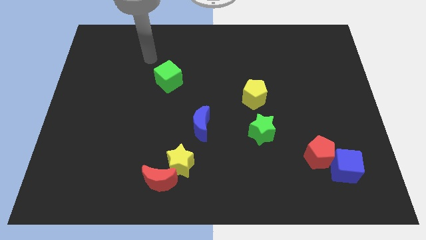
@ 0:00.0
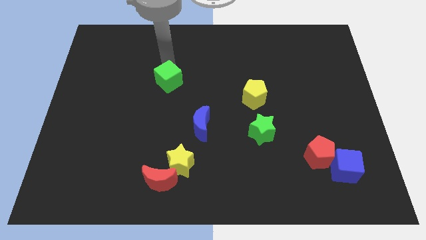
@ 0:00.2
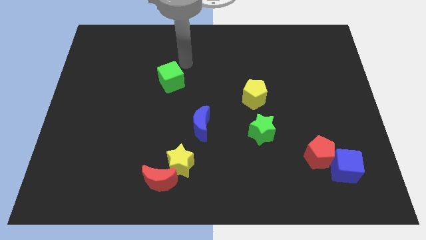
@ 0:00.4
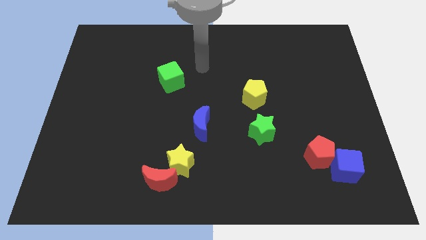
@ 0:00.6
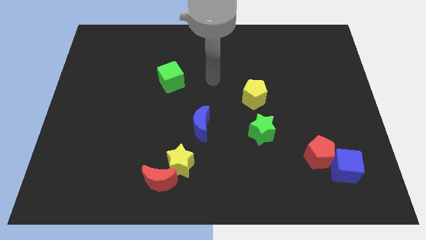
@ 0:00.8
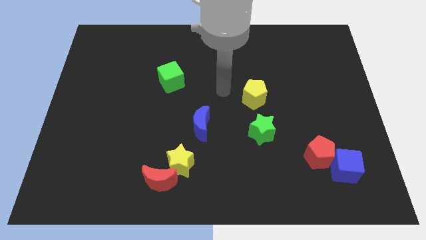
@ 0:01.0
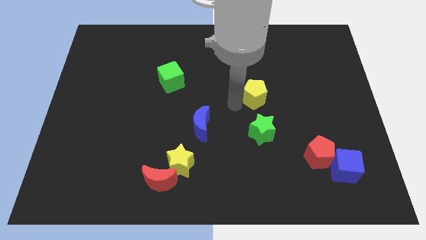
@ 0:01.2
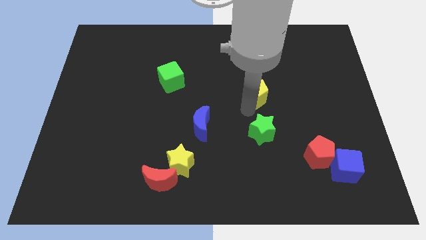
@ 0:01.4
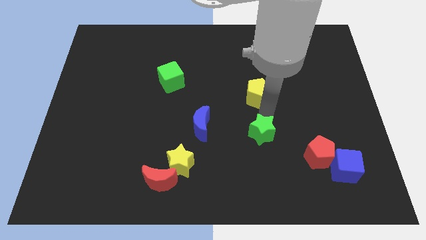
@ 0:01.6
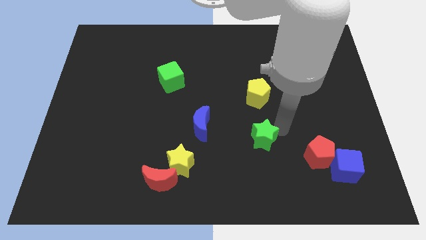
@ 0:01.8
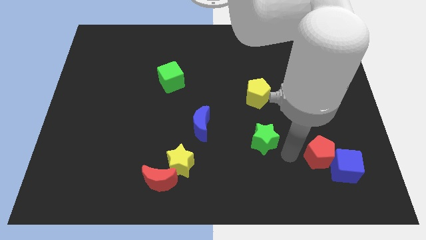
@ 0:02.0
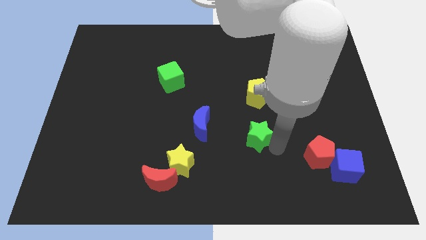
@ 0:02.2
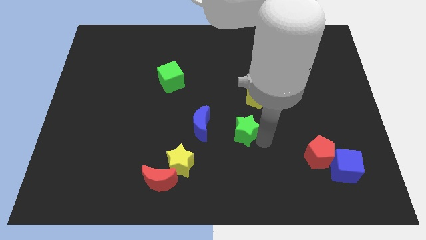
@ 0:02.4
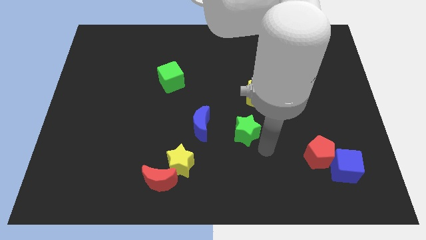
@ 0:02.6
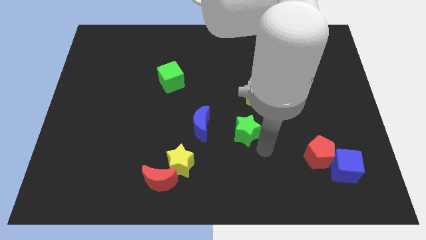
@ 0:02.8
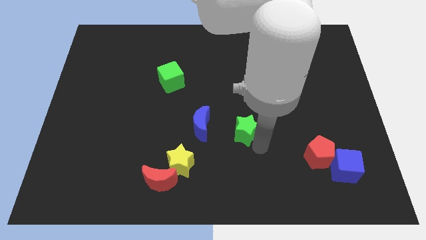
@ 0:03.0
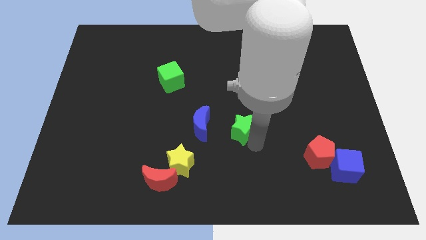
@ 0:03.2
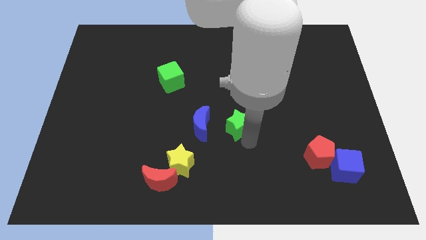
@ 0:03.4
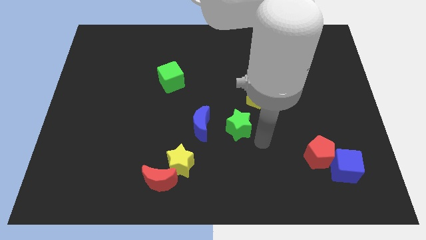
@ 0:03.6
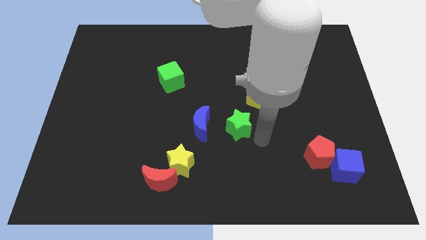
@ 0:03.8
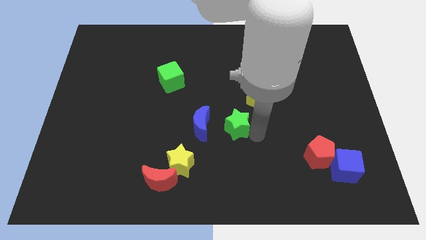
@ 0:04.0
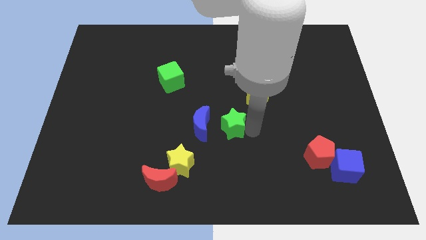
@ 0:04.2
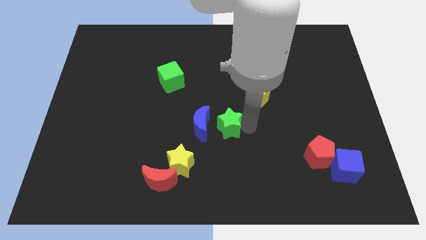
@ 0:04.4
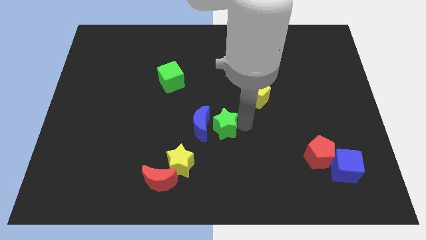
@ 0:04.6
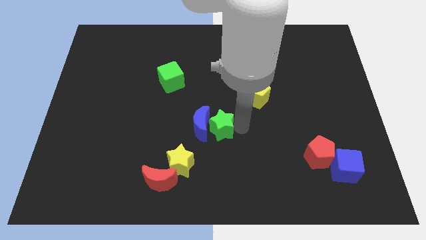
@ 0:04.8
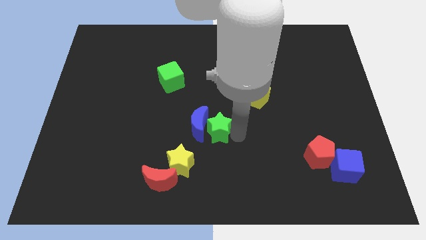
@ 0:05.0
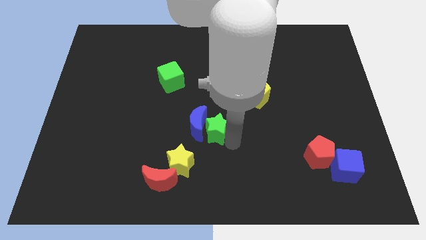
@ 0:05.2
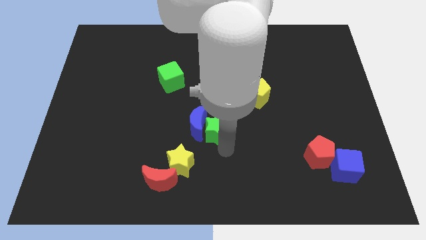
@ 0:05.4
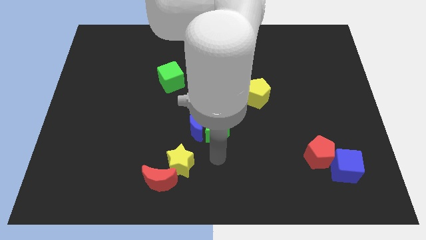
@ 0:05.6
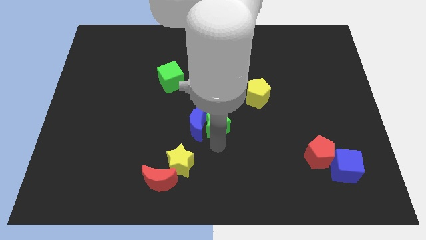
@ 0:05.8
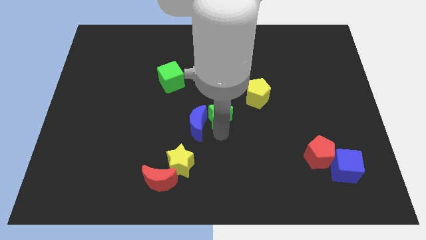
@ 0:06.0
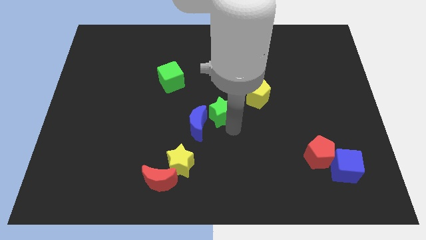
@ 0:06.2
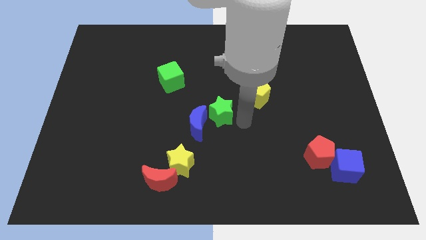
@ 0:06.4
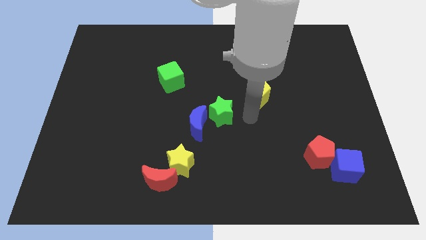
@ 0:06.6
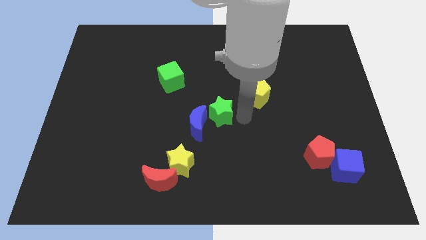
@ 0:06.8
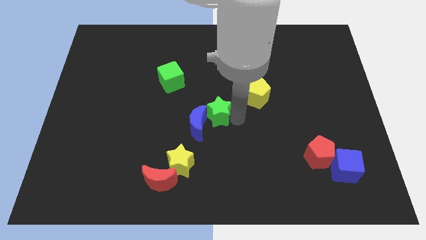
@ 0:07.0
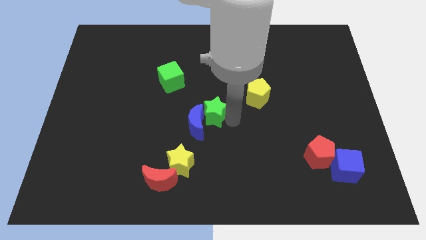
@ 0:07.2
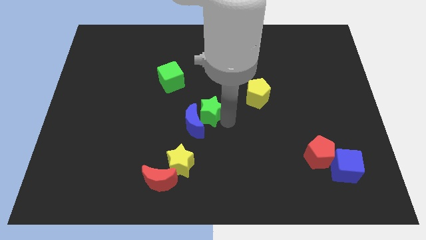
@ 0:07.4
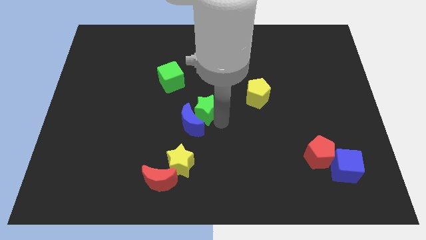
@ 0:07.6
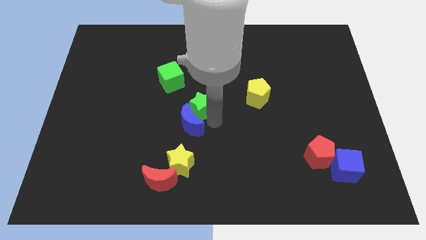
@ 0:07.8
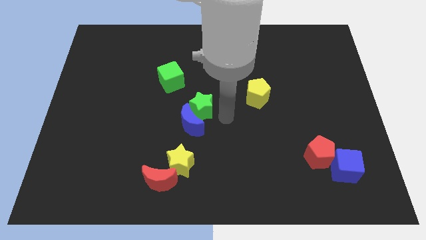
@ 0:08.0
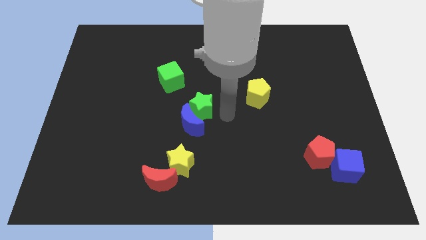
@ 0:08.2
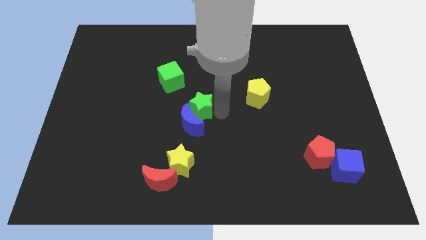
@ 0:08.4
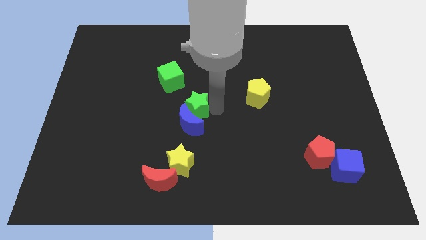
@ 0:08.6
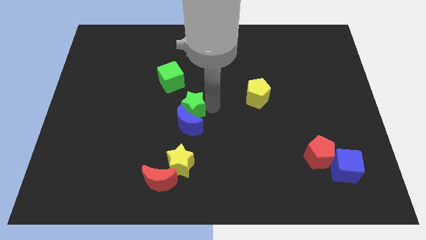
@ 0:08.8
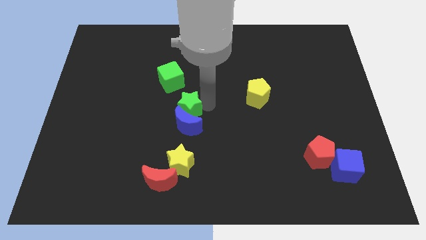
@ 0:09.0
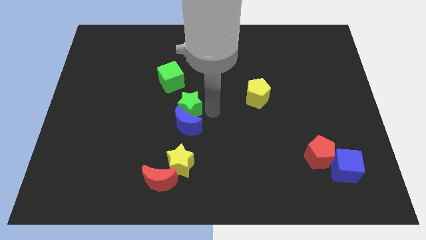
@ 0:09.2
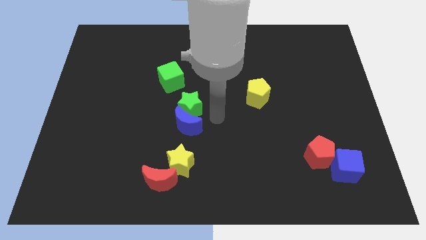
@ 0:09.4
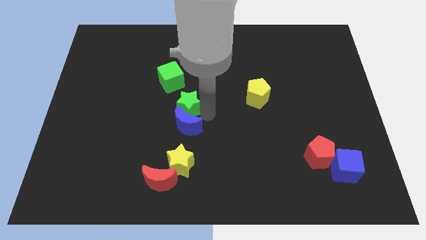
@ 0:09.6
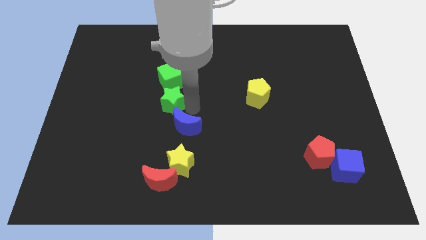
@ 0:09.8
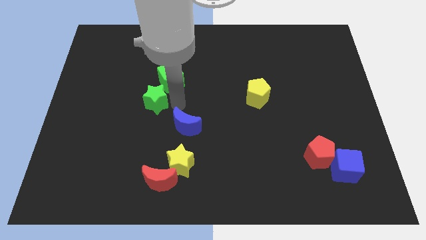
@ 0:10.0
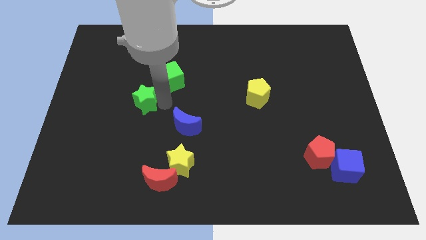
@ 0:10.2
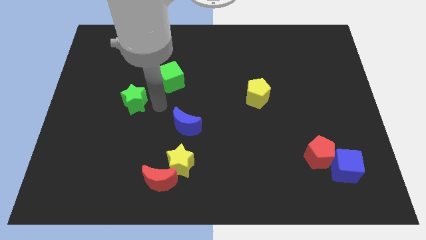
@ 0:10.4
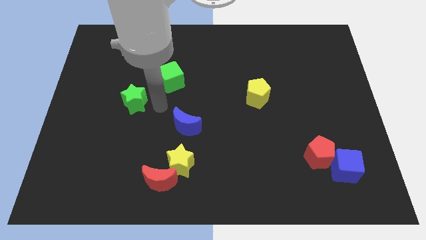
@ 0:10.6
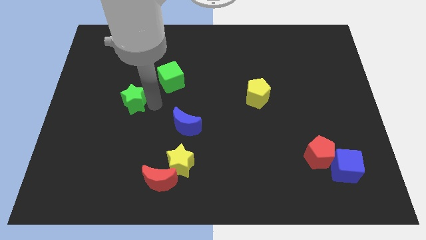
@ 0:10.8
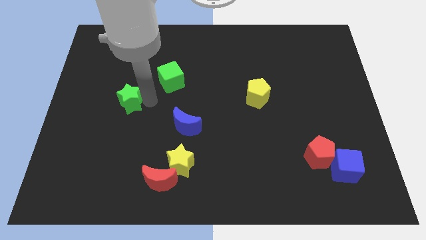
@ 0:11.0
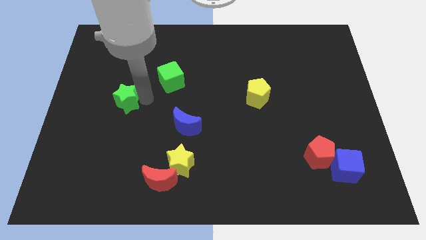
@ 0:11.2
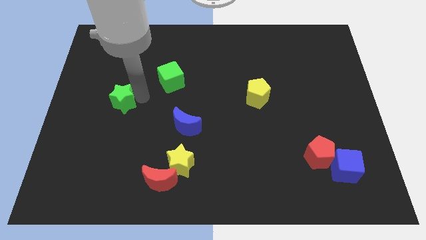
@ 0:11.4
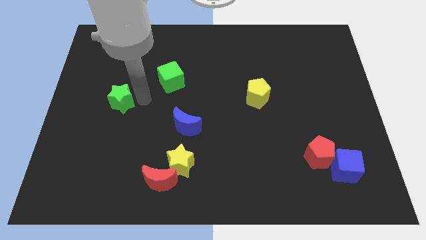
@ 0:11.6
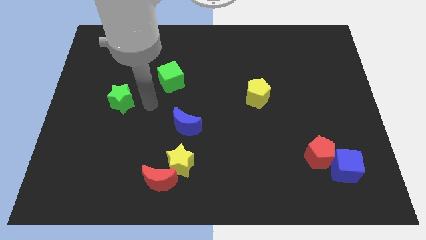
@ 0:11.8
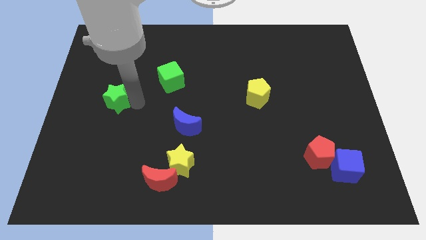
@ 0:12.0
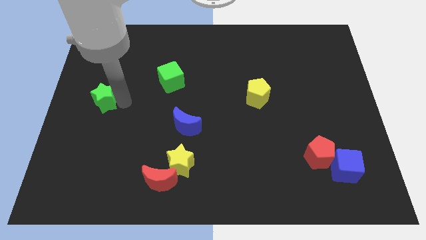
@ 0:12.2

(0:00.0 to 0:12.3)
put the green star to the center left
